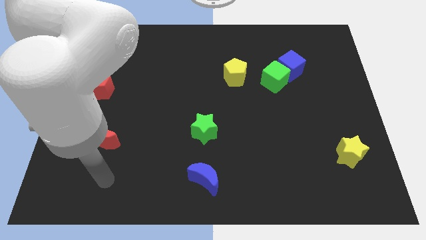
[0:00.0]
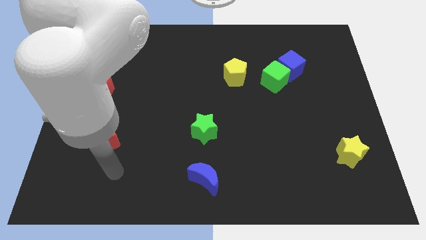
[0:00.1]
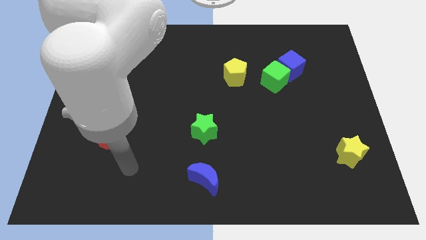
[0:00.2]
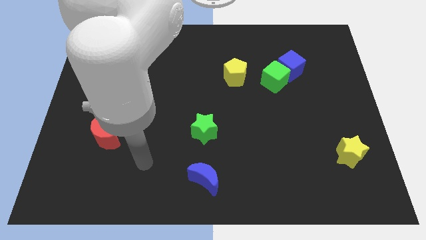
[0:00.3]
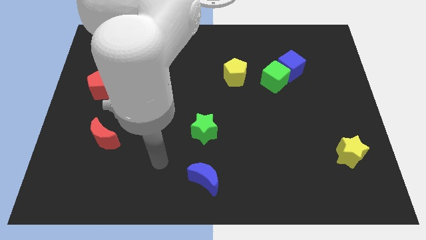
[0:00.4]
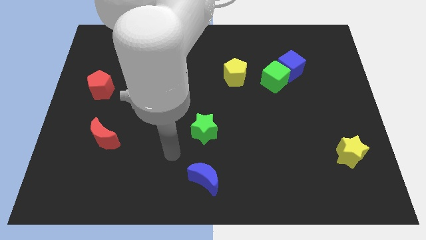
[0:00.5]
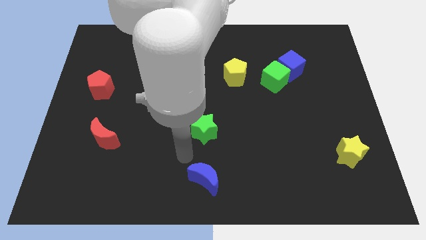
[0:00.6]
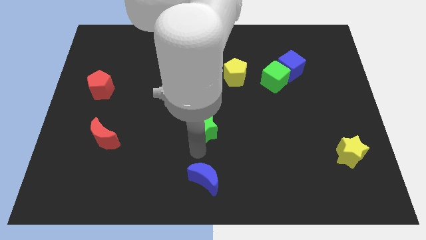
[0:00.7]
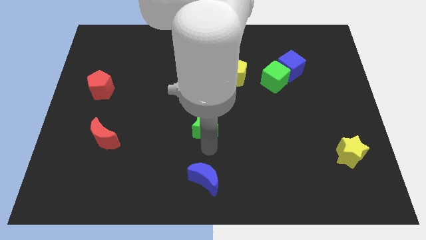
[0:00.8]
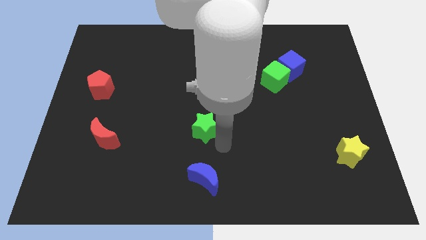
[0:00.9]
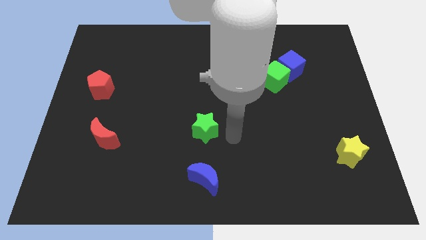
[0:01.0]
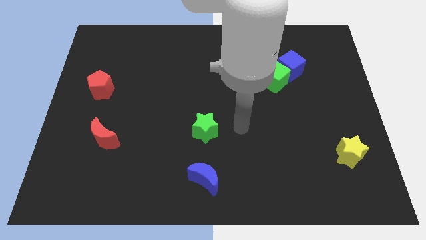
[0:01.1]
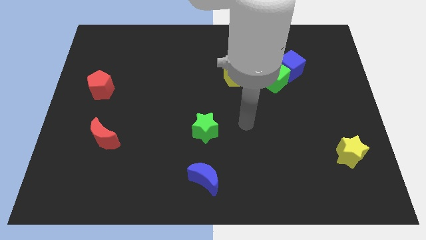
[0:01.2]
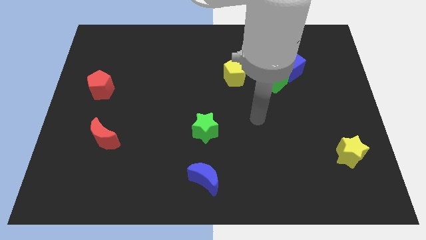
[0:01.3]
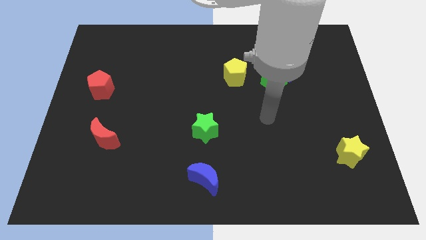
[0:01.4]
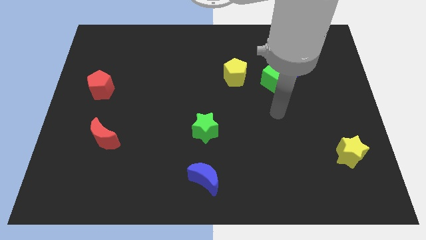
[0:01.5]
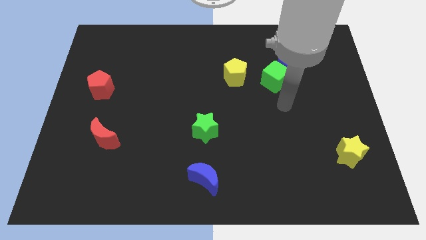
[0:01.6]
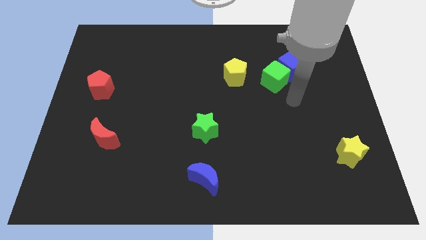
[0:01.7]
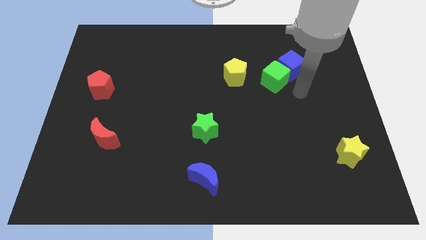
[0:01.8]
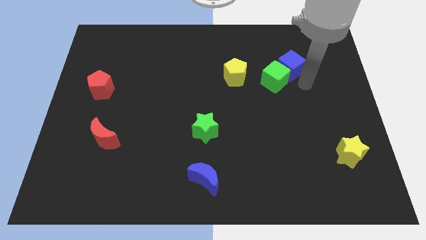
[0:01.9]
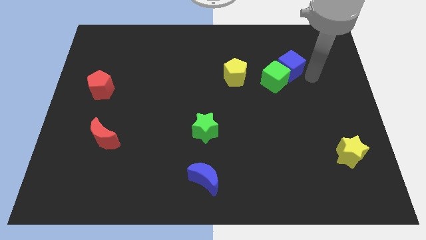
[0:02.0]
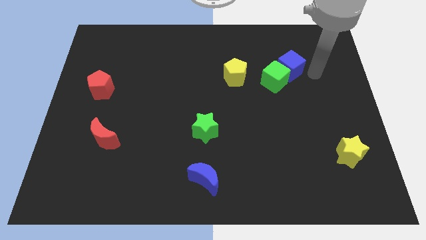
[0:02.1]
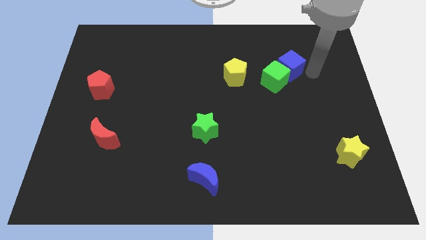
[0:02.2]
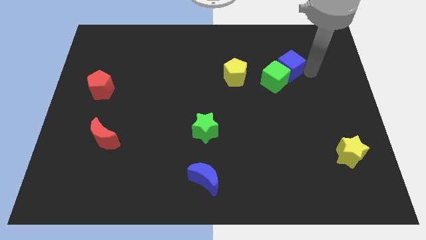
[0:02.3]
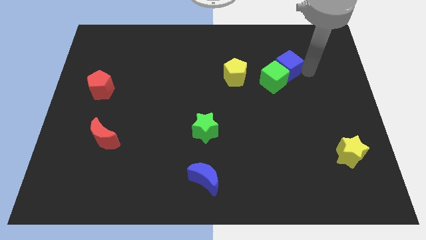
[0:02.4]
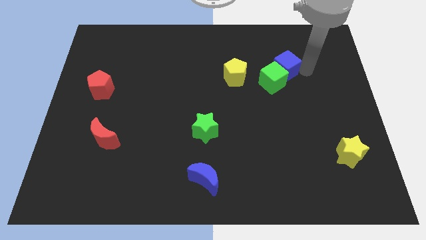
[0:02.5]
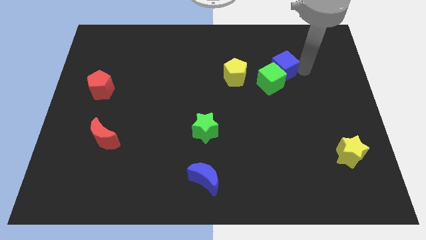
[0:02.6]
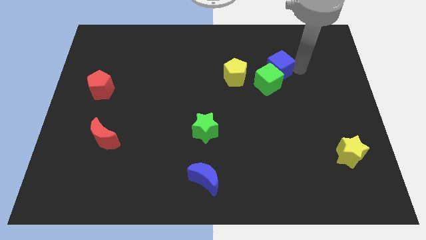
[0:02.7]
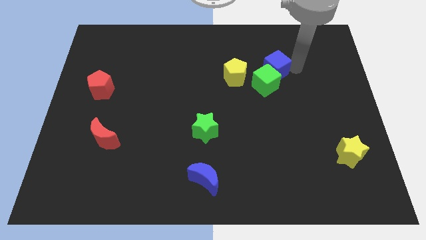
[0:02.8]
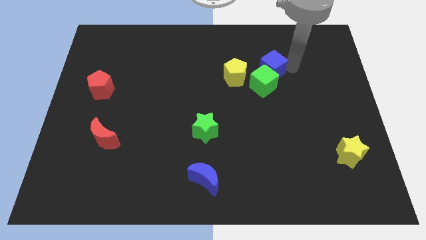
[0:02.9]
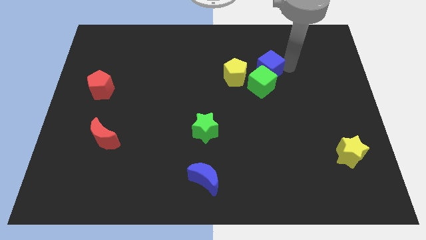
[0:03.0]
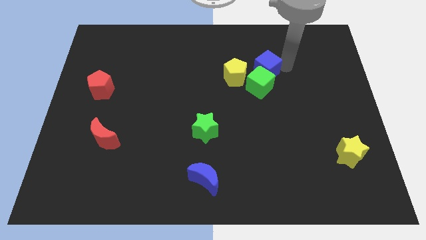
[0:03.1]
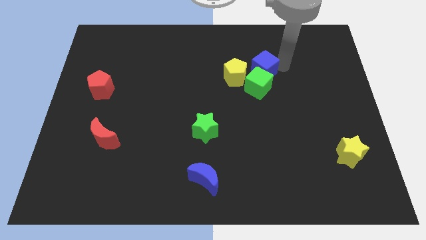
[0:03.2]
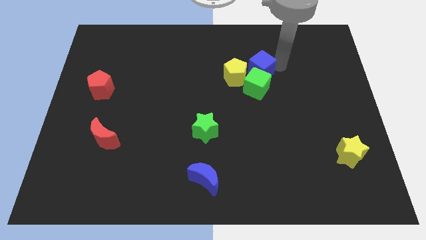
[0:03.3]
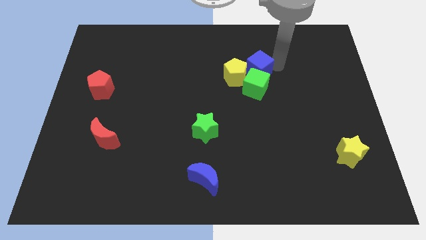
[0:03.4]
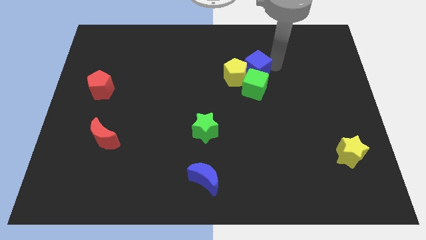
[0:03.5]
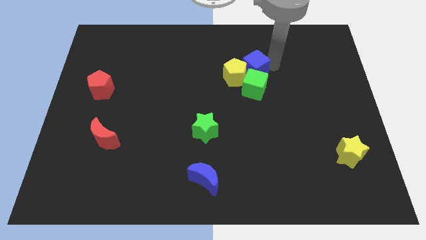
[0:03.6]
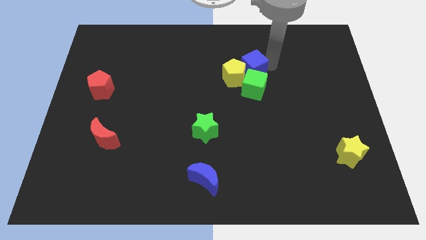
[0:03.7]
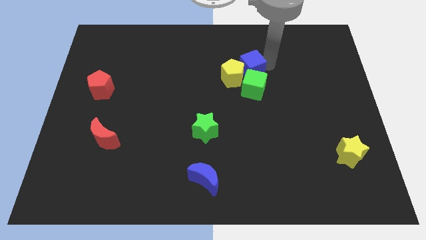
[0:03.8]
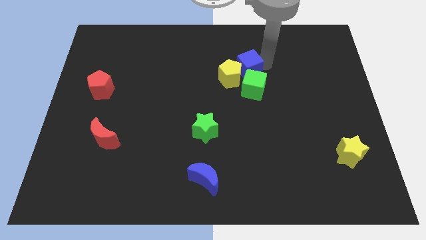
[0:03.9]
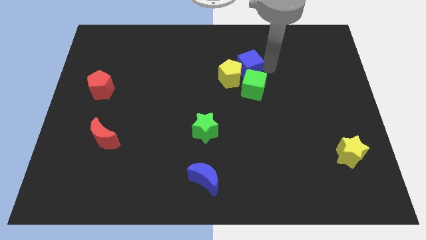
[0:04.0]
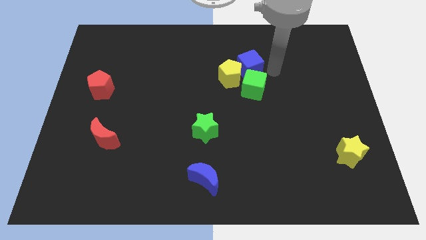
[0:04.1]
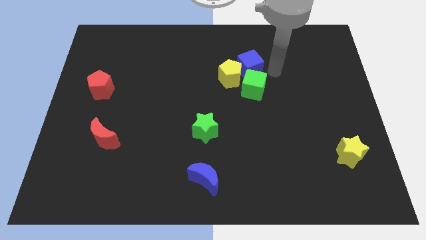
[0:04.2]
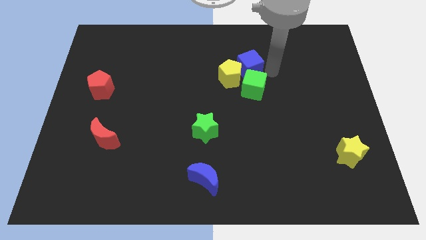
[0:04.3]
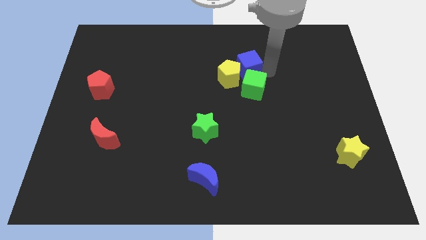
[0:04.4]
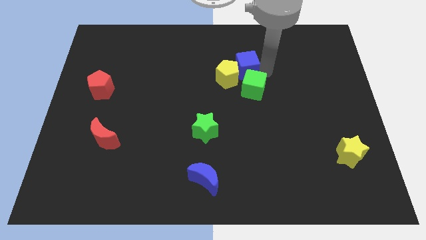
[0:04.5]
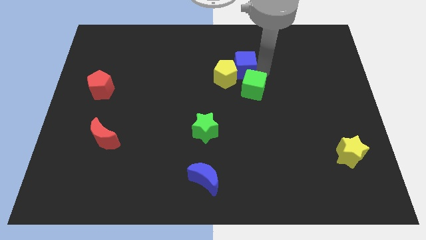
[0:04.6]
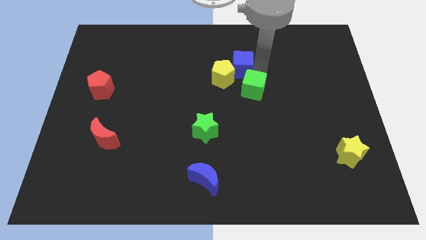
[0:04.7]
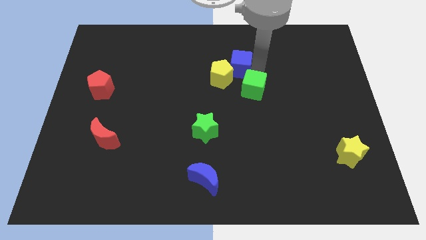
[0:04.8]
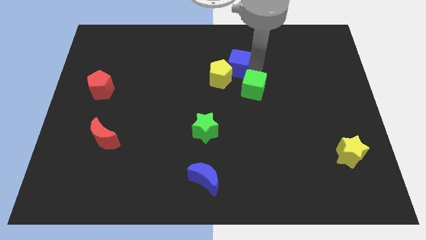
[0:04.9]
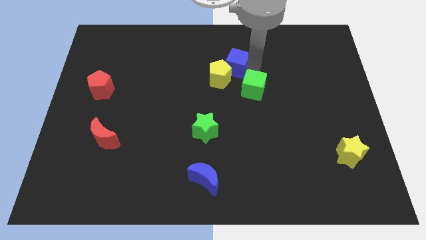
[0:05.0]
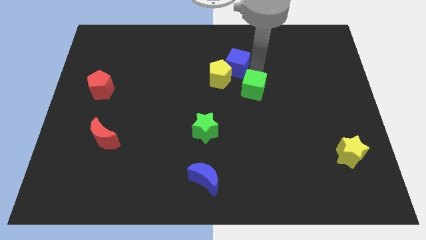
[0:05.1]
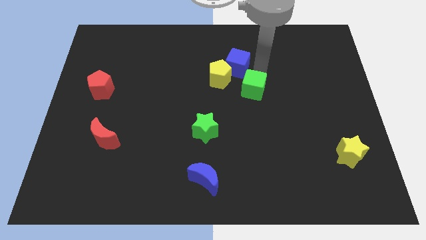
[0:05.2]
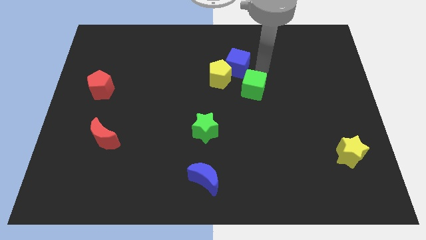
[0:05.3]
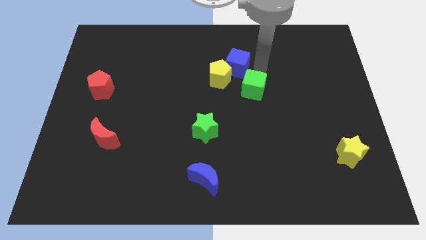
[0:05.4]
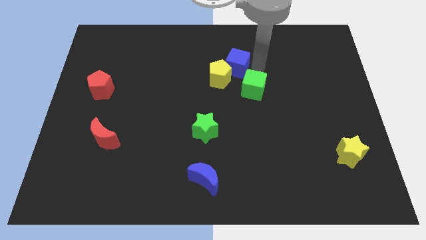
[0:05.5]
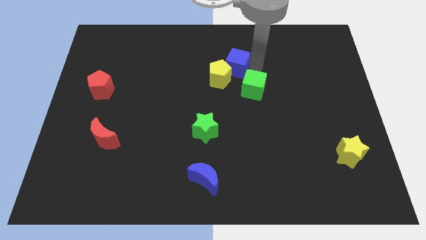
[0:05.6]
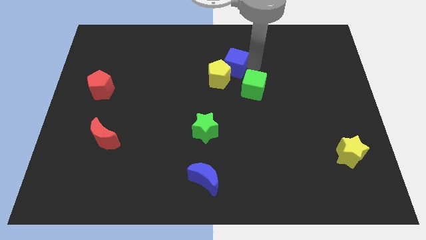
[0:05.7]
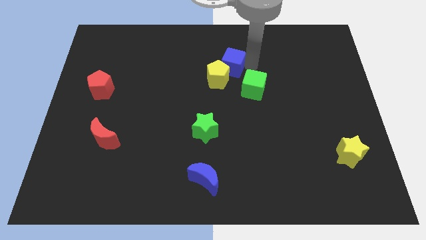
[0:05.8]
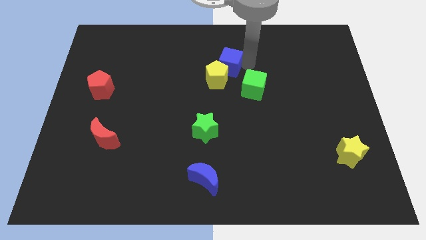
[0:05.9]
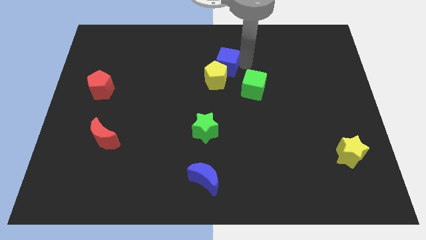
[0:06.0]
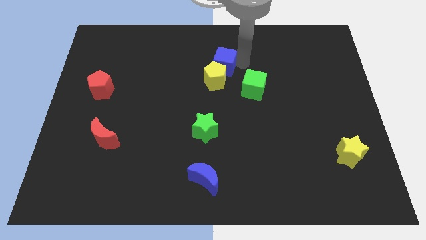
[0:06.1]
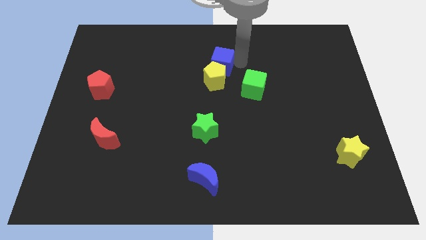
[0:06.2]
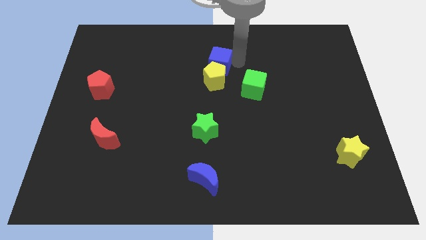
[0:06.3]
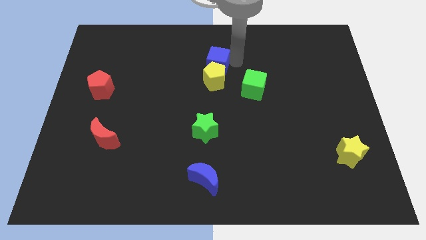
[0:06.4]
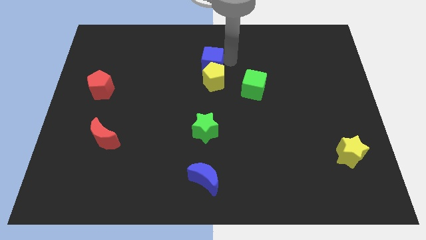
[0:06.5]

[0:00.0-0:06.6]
move the blue cube left

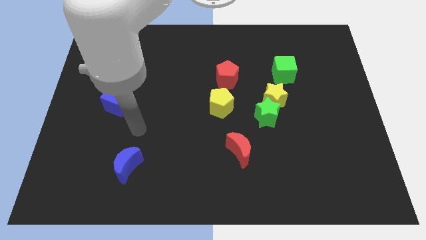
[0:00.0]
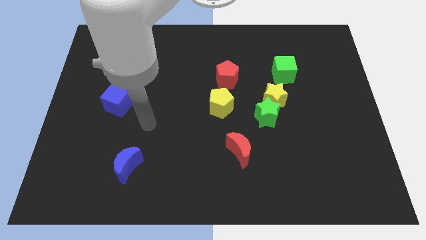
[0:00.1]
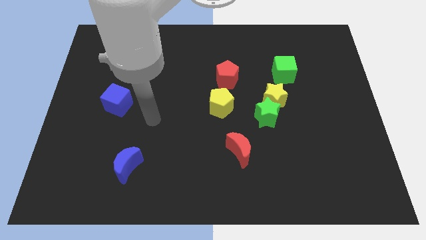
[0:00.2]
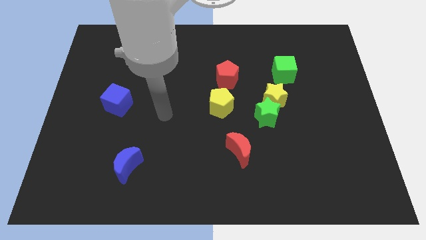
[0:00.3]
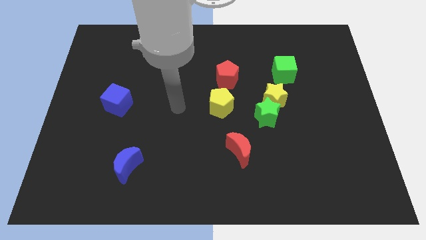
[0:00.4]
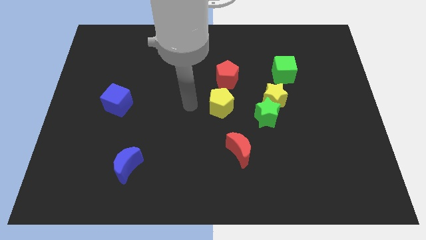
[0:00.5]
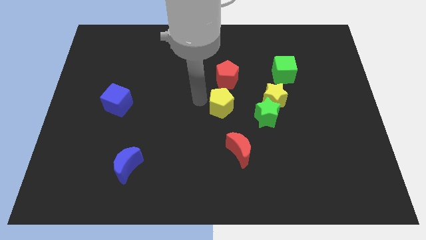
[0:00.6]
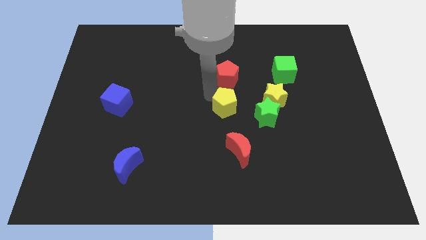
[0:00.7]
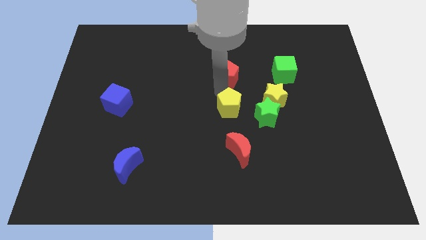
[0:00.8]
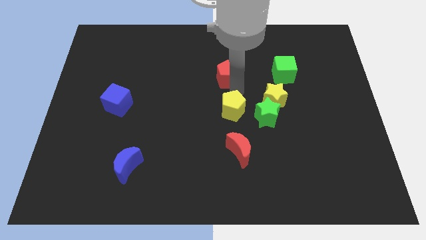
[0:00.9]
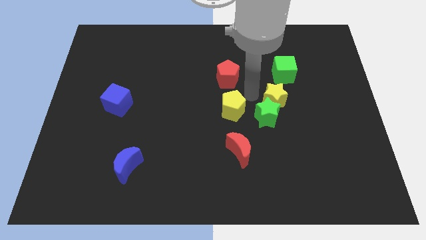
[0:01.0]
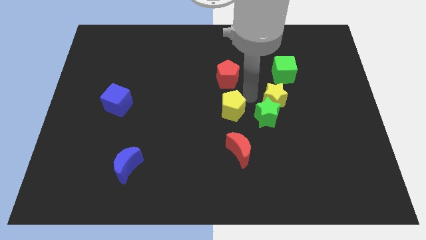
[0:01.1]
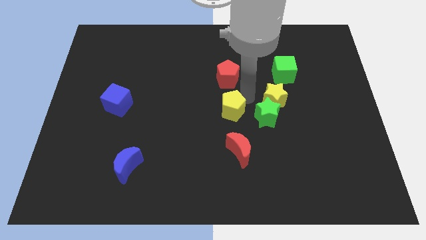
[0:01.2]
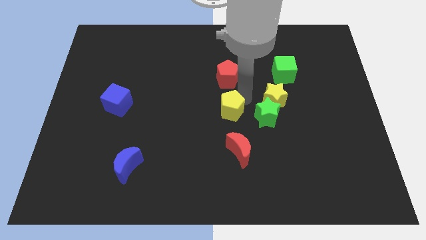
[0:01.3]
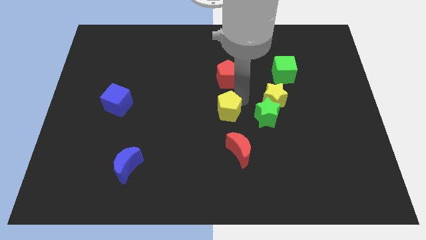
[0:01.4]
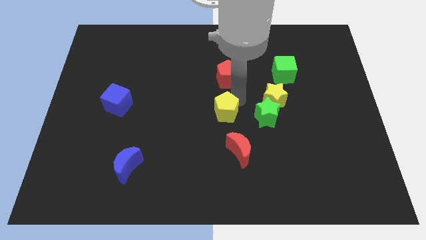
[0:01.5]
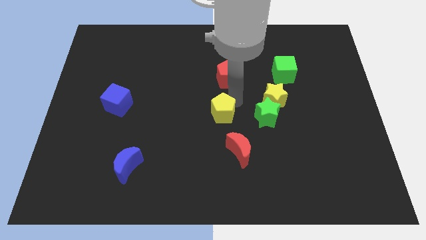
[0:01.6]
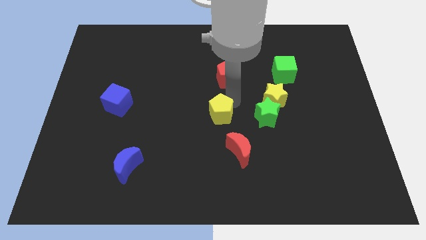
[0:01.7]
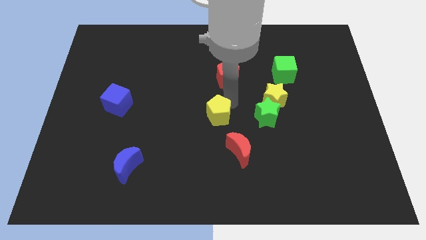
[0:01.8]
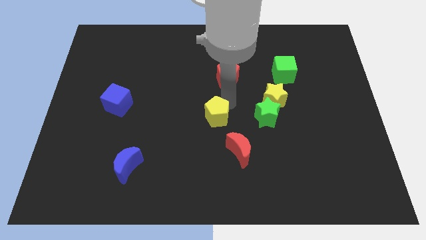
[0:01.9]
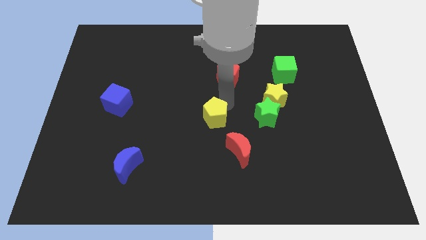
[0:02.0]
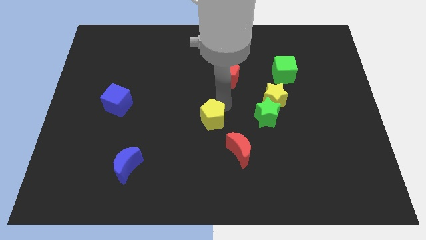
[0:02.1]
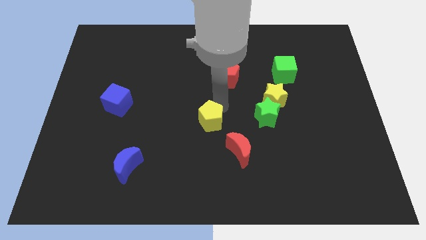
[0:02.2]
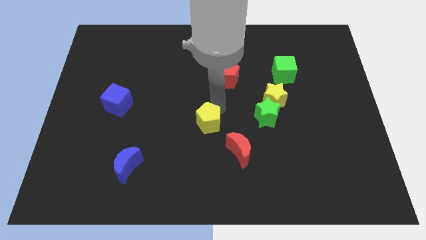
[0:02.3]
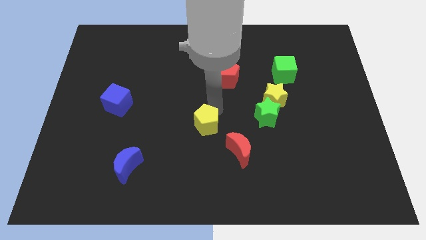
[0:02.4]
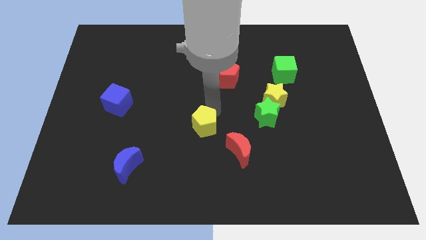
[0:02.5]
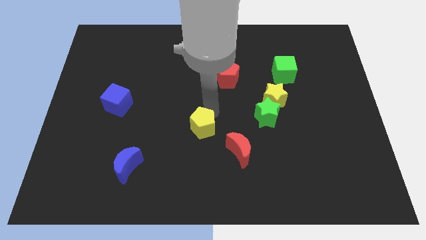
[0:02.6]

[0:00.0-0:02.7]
push the yellow pentagon a bit downwards and then left
